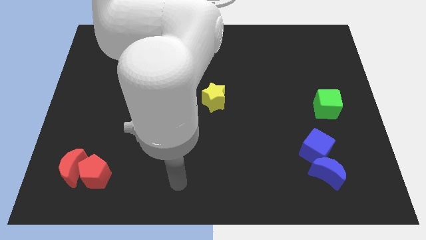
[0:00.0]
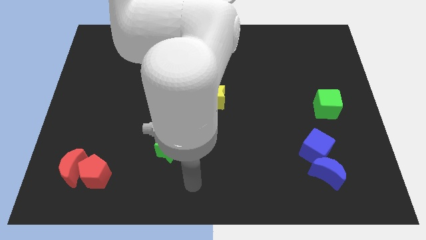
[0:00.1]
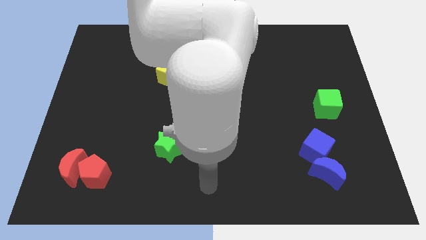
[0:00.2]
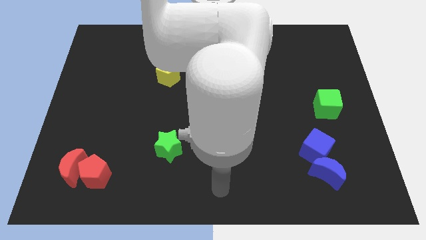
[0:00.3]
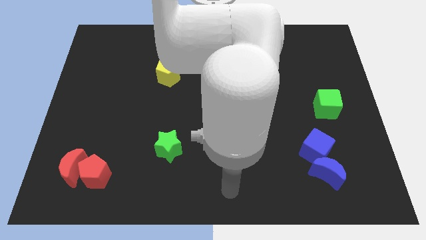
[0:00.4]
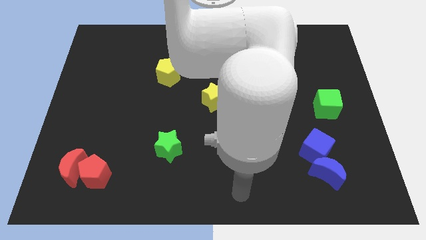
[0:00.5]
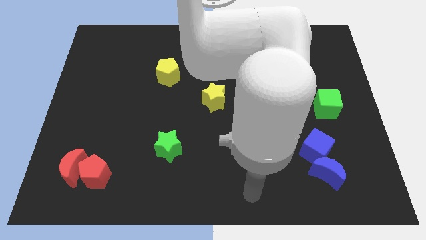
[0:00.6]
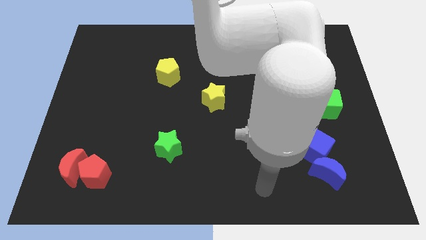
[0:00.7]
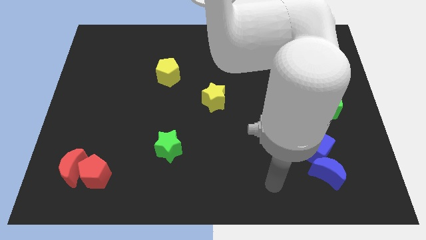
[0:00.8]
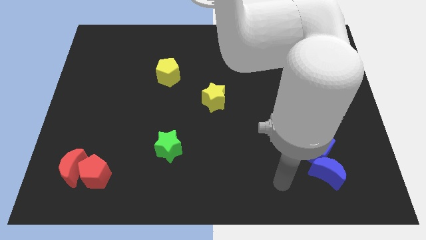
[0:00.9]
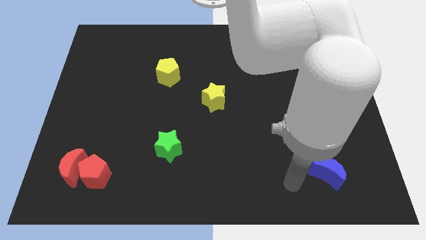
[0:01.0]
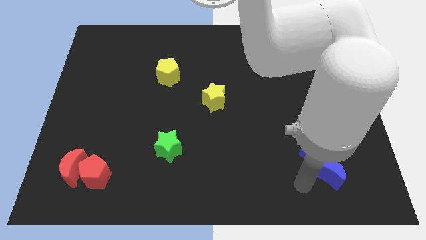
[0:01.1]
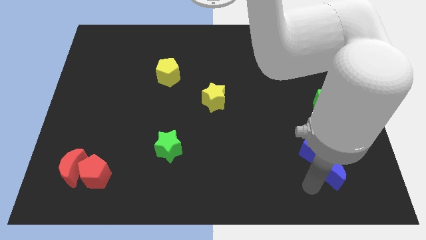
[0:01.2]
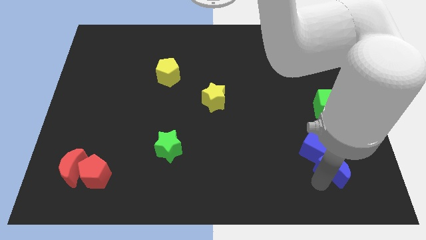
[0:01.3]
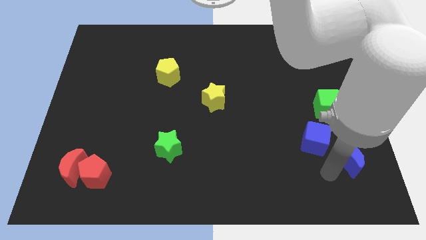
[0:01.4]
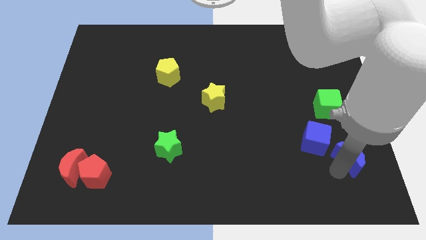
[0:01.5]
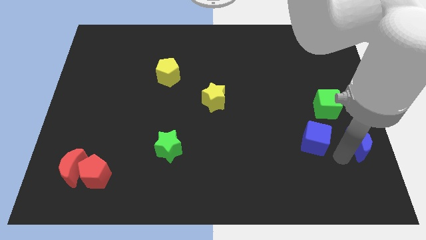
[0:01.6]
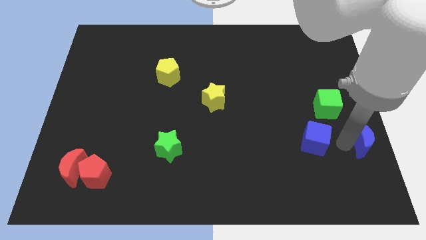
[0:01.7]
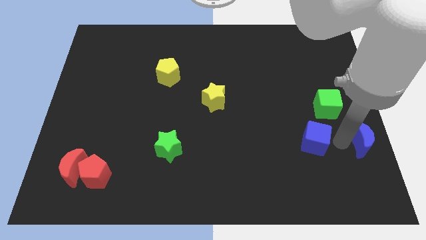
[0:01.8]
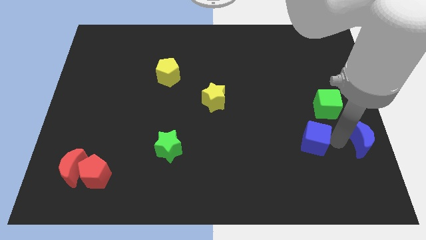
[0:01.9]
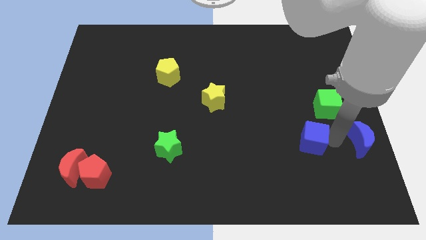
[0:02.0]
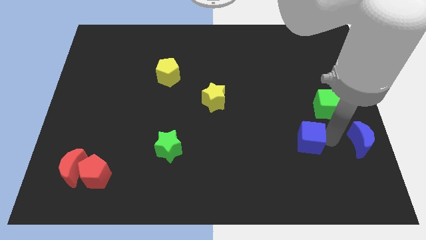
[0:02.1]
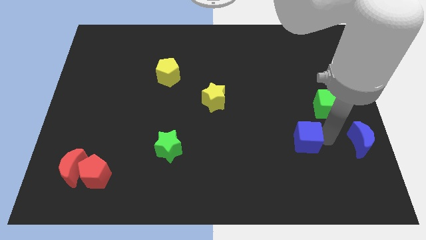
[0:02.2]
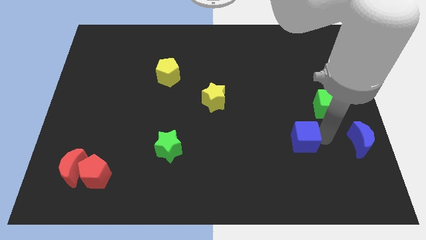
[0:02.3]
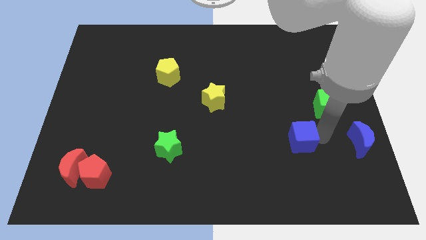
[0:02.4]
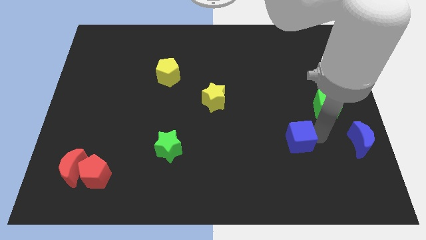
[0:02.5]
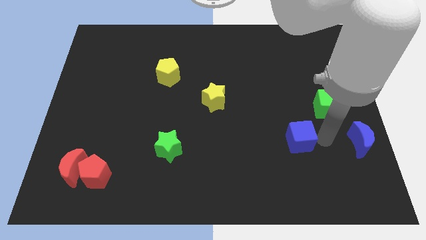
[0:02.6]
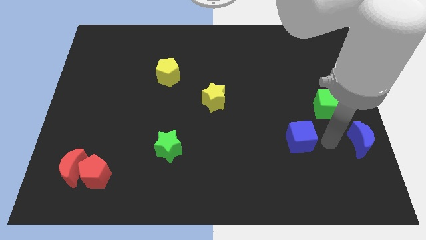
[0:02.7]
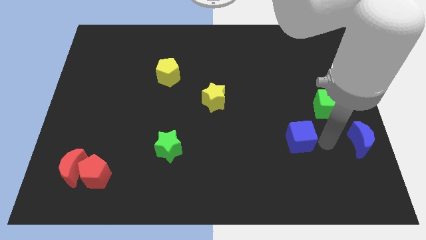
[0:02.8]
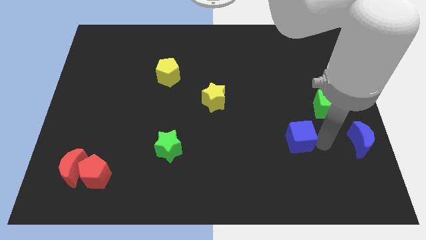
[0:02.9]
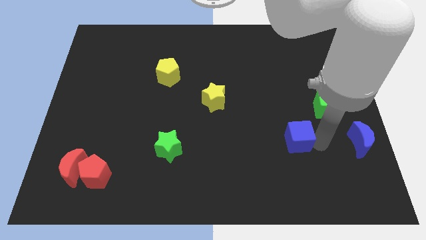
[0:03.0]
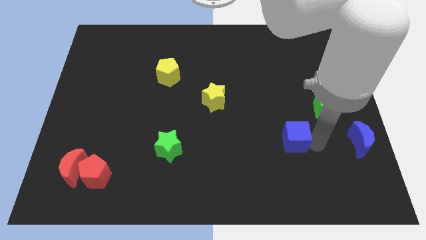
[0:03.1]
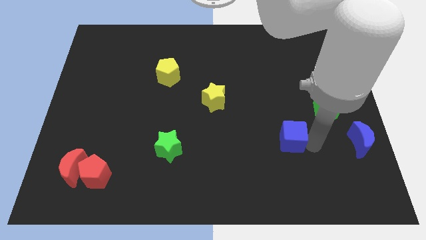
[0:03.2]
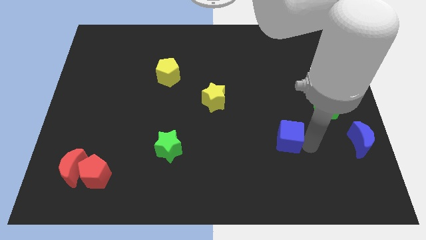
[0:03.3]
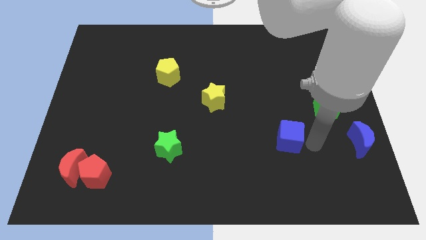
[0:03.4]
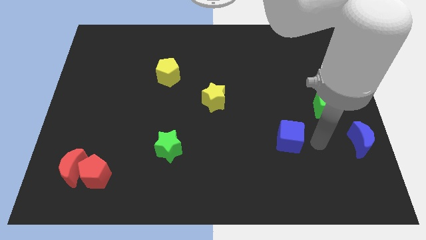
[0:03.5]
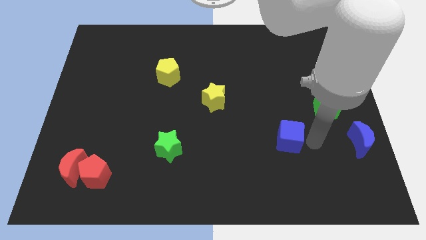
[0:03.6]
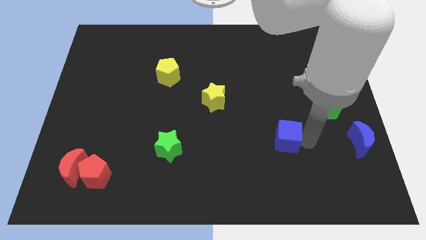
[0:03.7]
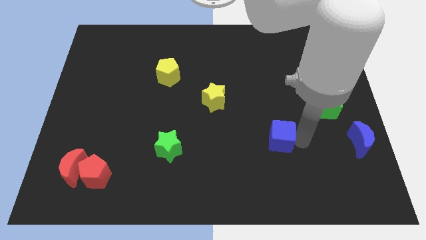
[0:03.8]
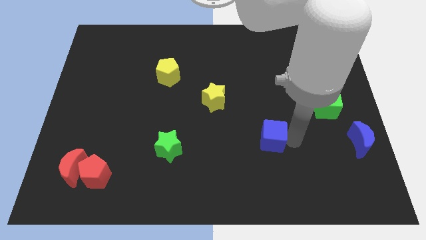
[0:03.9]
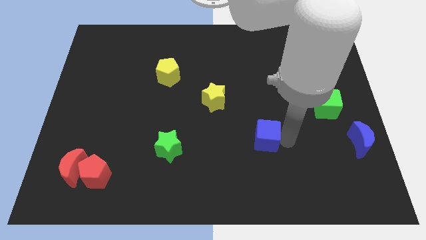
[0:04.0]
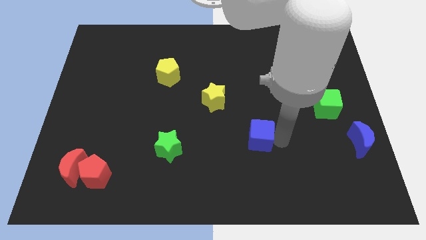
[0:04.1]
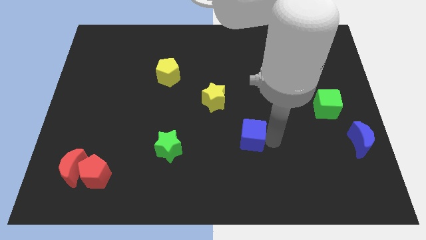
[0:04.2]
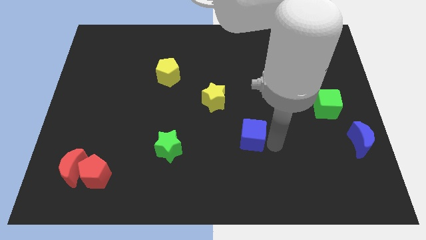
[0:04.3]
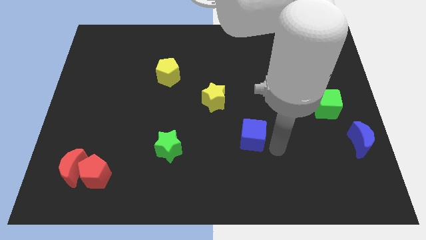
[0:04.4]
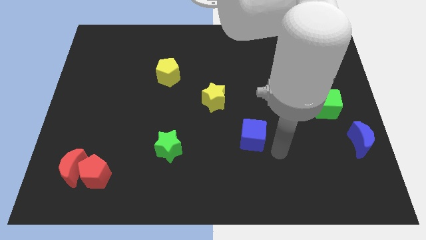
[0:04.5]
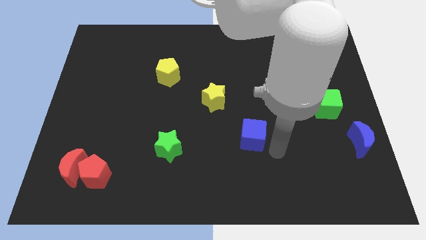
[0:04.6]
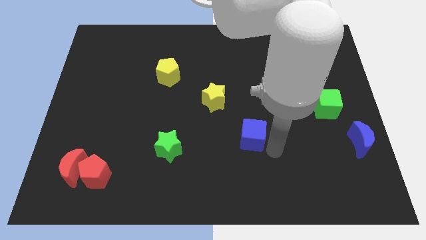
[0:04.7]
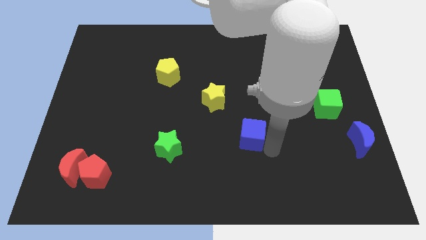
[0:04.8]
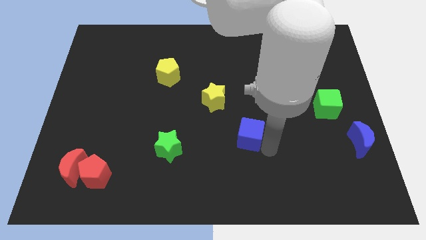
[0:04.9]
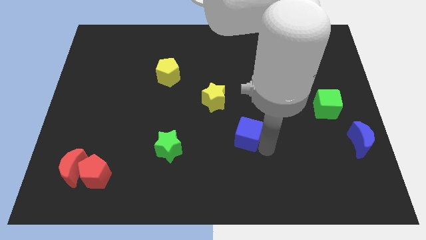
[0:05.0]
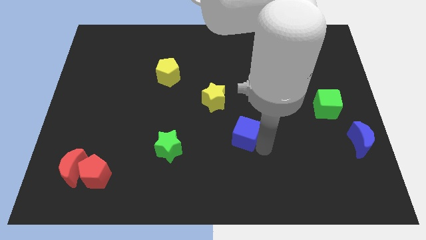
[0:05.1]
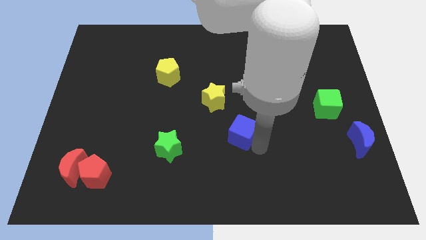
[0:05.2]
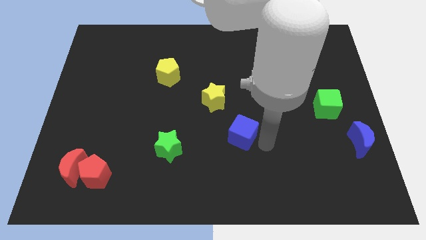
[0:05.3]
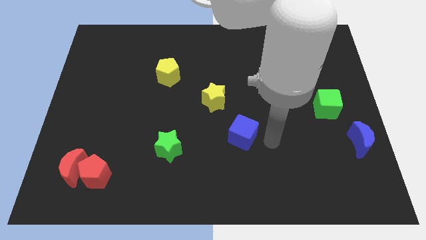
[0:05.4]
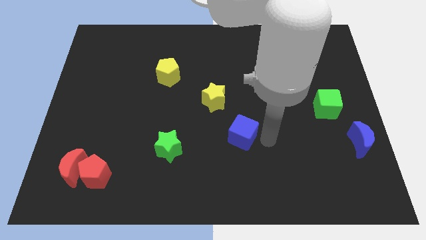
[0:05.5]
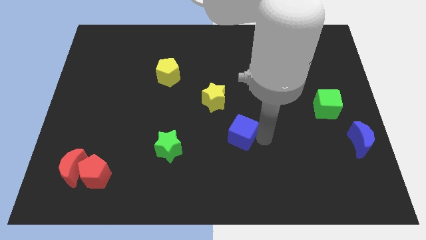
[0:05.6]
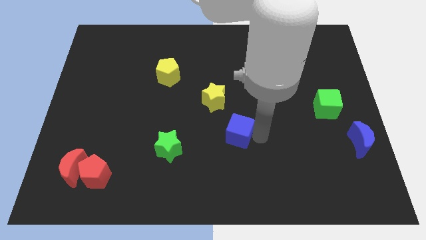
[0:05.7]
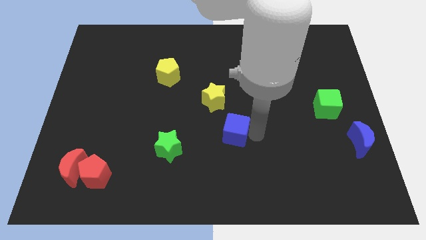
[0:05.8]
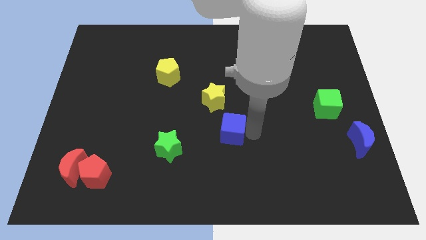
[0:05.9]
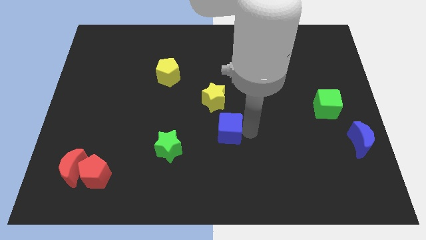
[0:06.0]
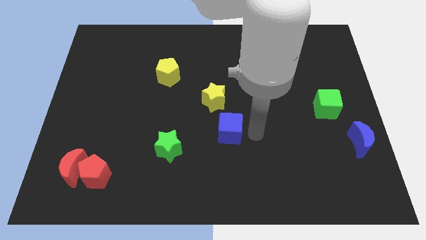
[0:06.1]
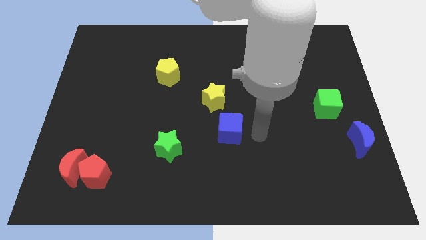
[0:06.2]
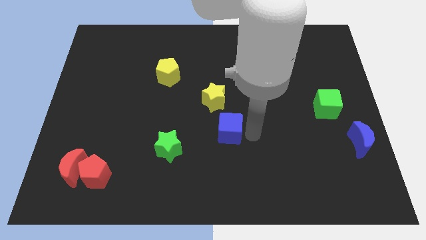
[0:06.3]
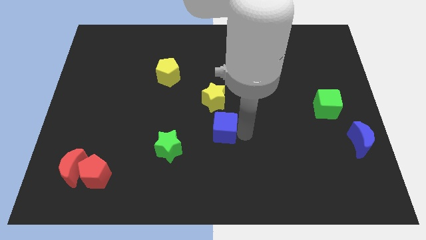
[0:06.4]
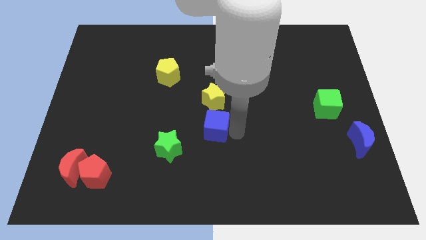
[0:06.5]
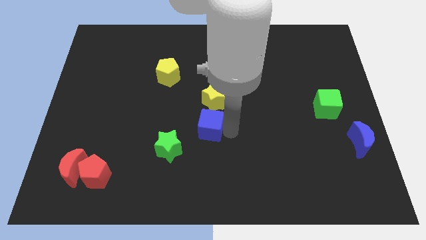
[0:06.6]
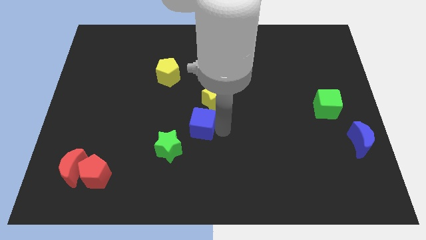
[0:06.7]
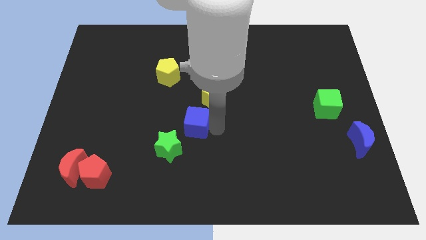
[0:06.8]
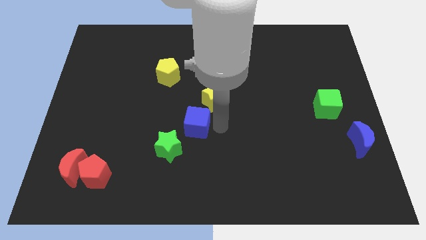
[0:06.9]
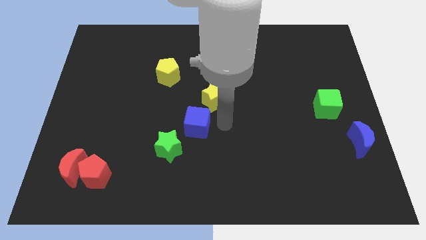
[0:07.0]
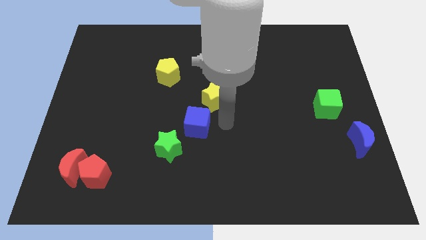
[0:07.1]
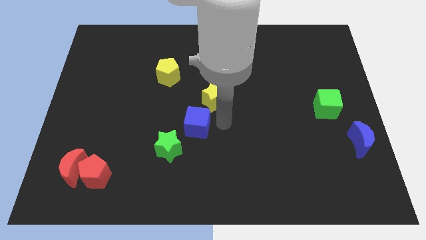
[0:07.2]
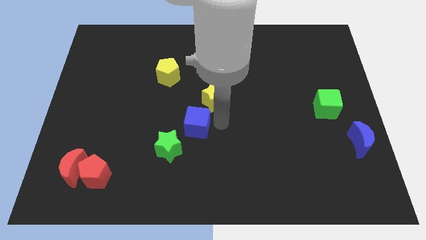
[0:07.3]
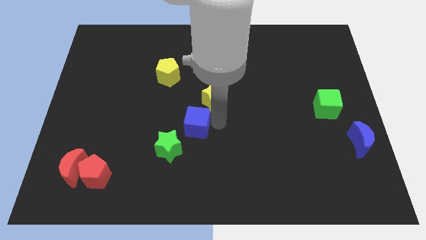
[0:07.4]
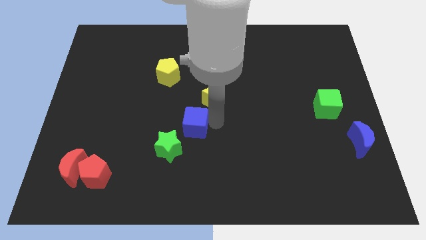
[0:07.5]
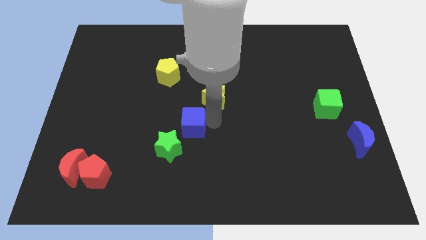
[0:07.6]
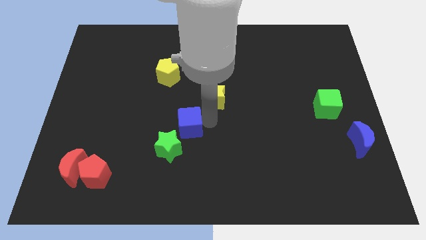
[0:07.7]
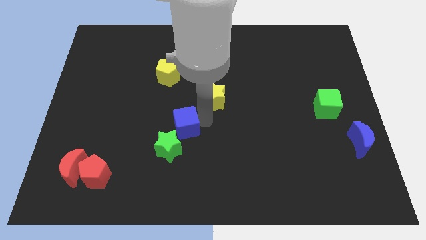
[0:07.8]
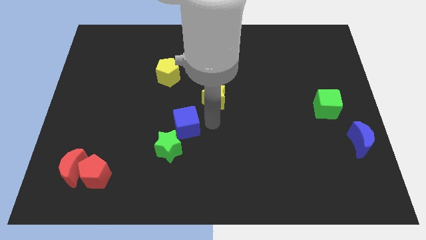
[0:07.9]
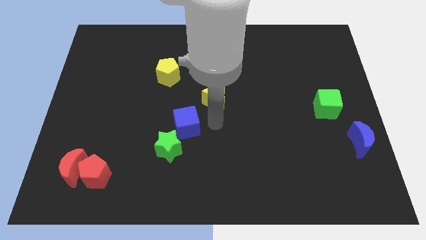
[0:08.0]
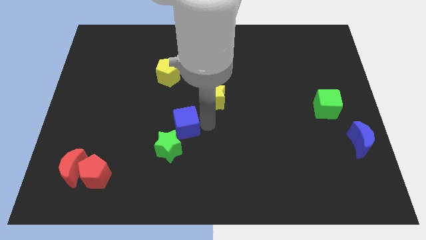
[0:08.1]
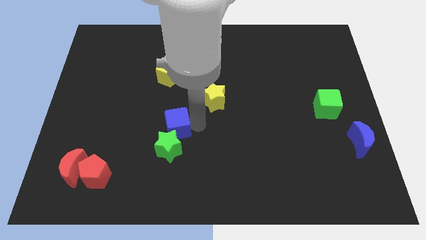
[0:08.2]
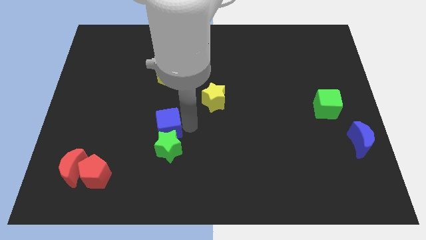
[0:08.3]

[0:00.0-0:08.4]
put the blue cube diagonally up and to the left of the green star
